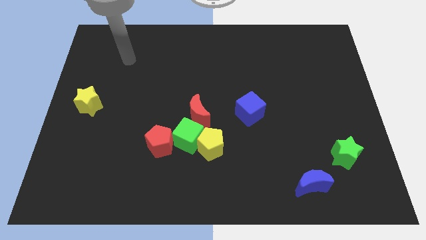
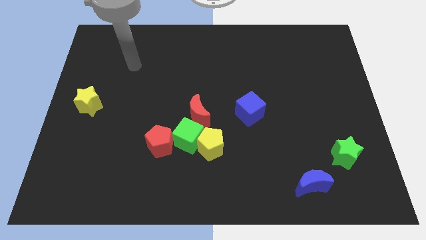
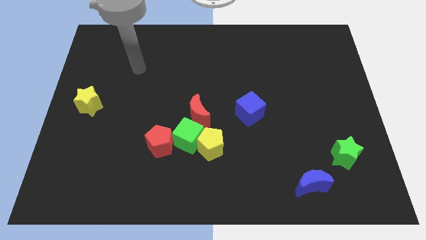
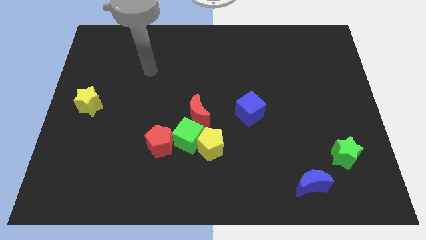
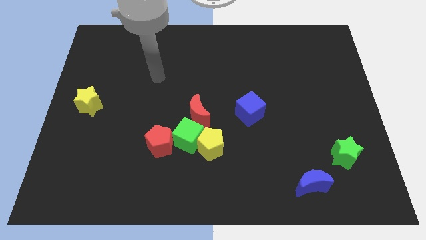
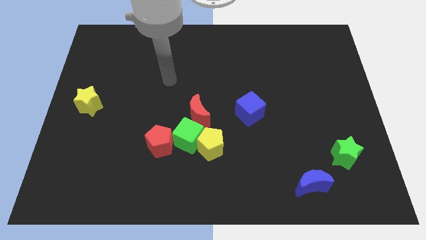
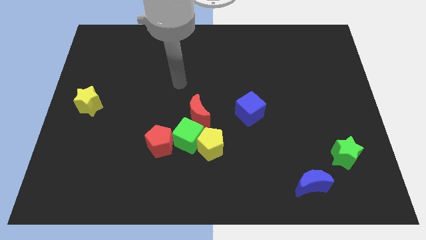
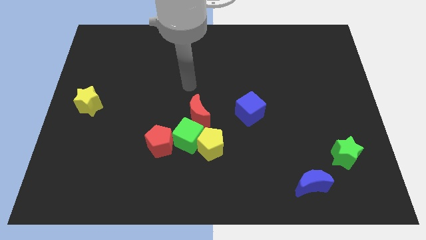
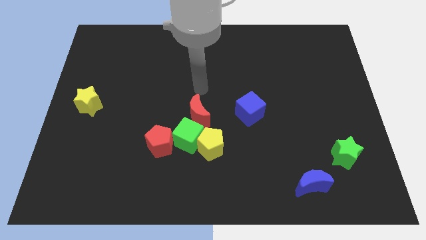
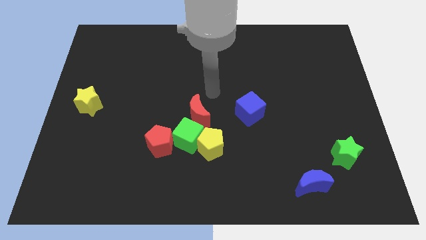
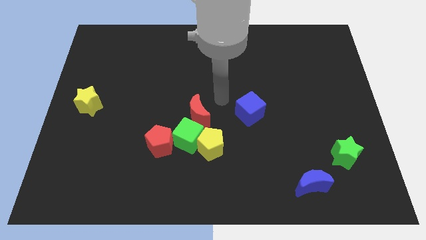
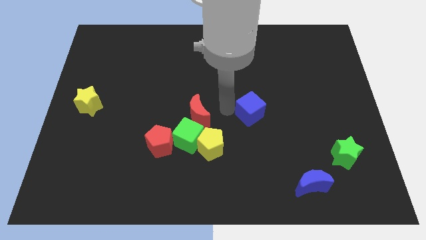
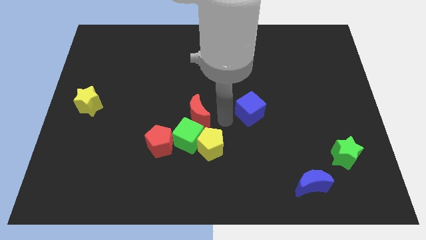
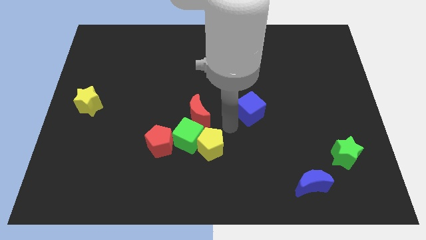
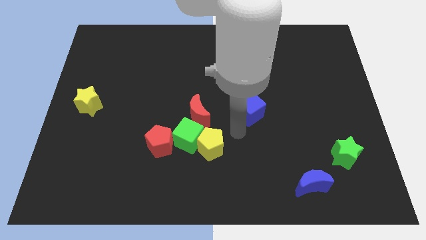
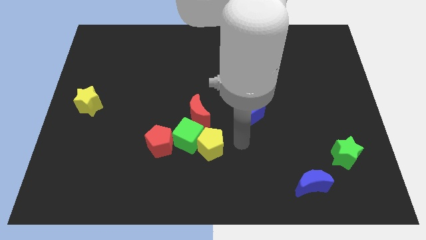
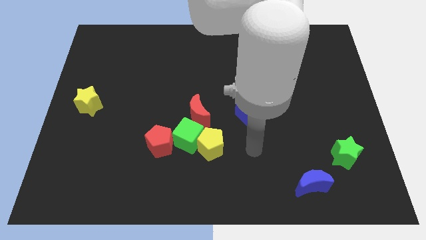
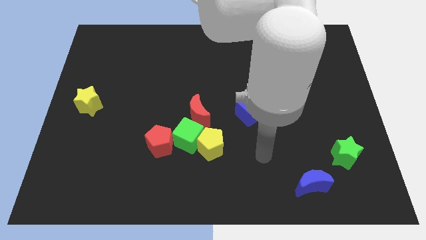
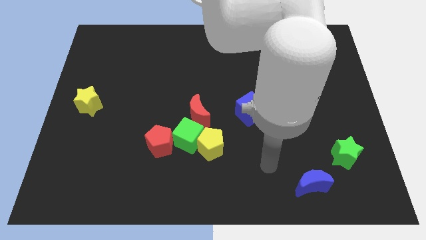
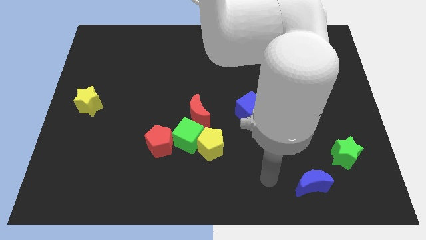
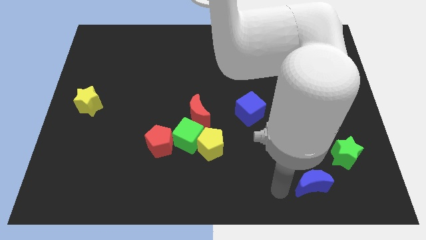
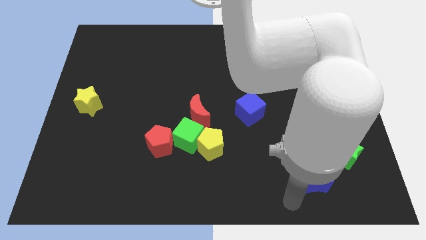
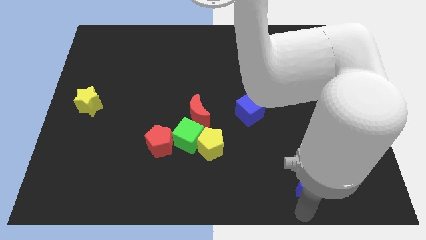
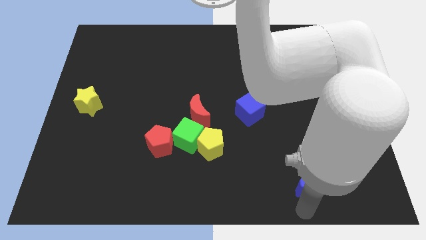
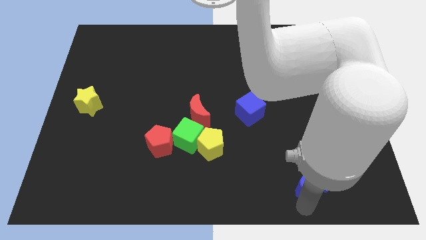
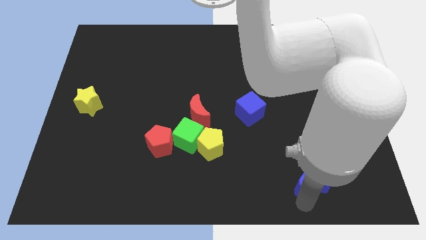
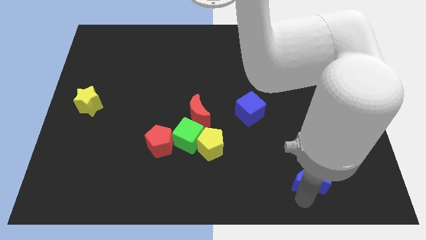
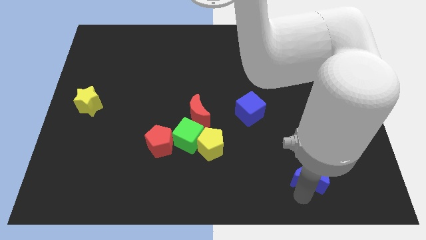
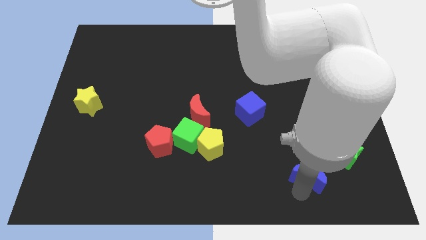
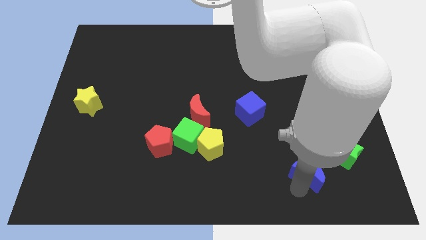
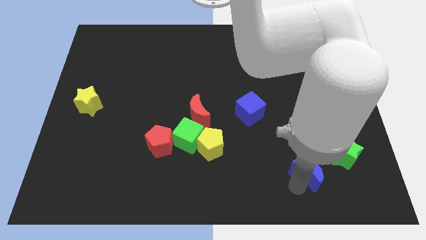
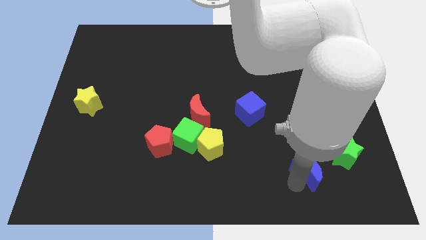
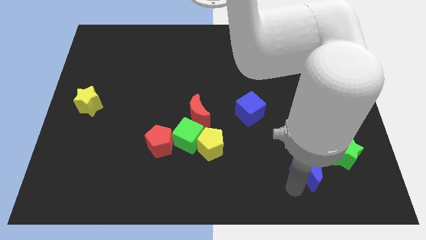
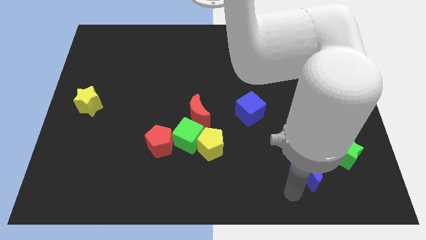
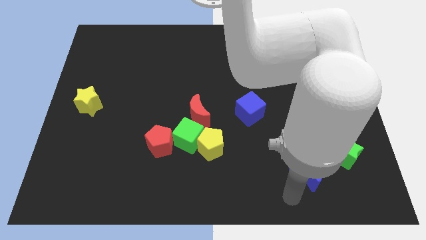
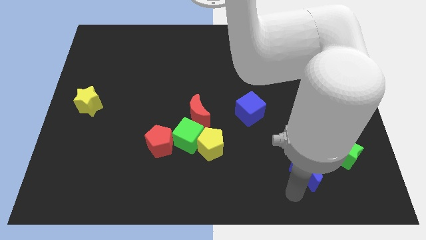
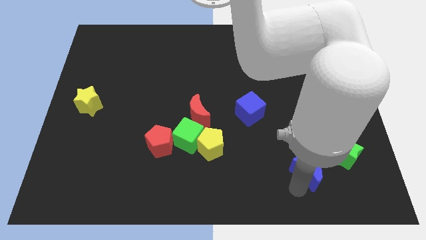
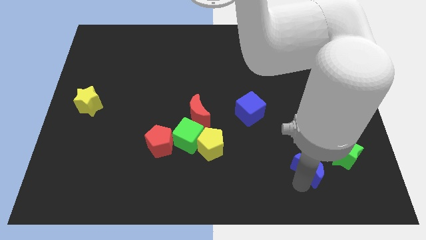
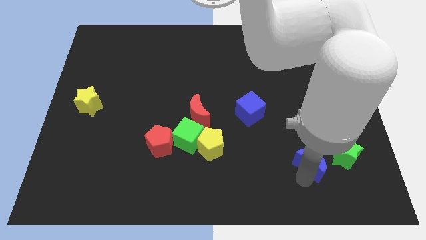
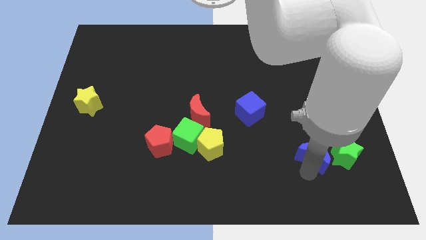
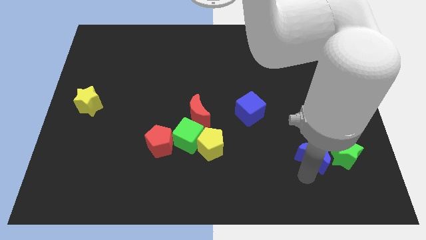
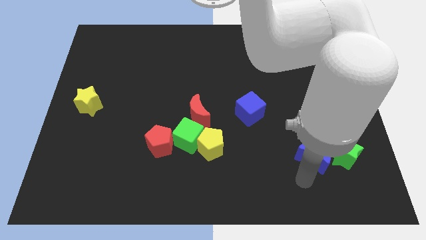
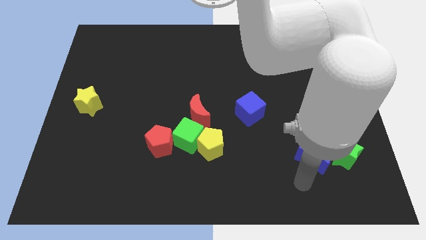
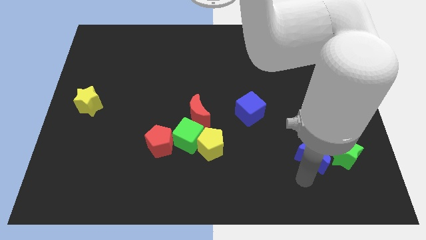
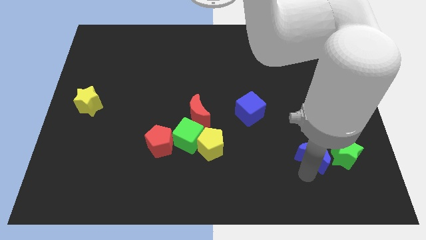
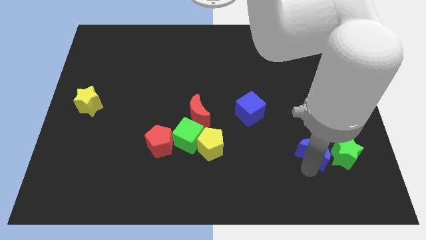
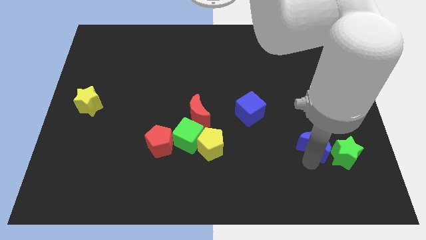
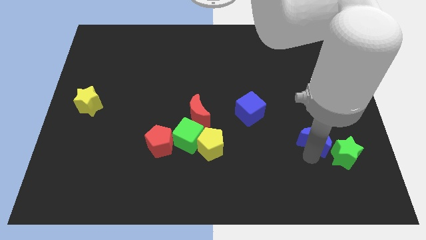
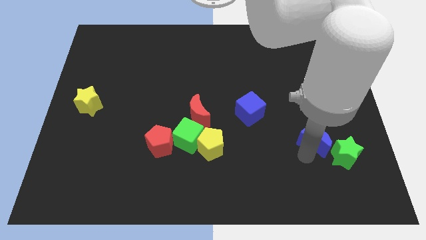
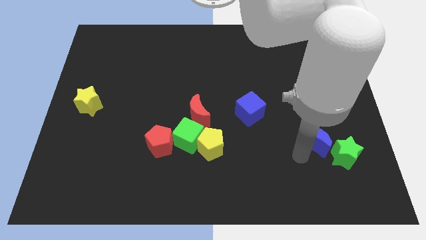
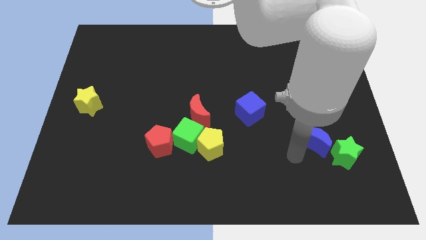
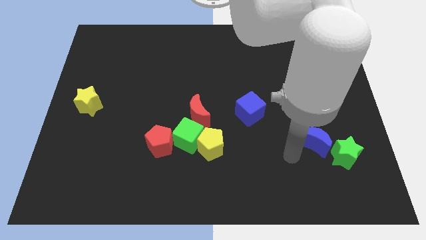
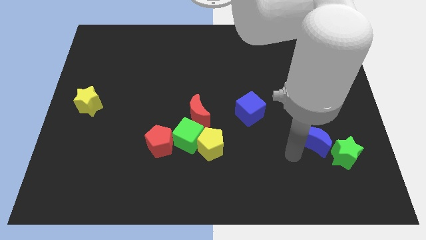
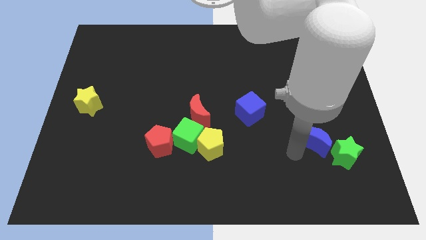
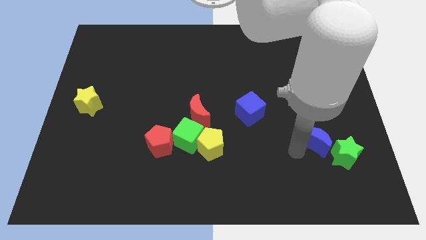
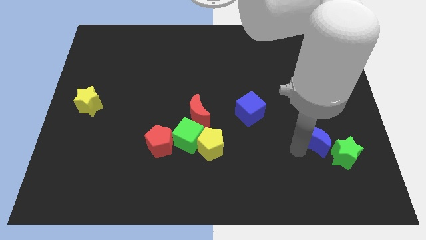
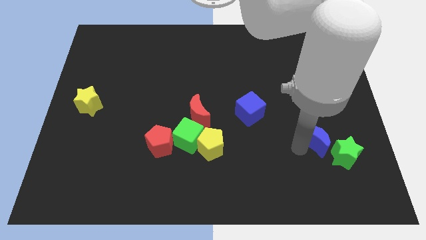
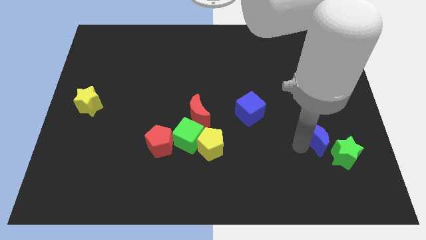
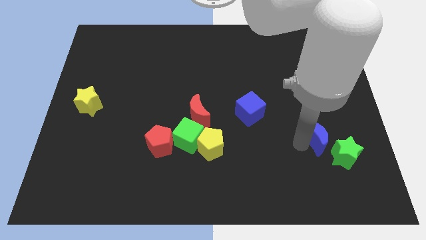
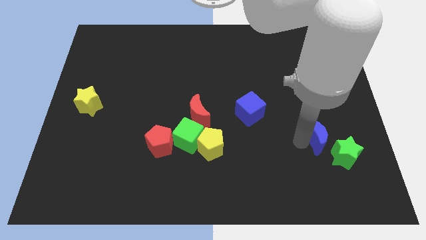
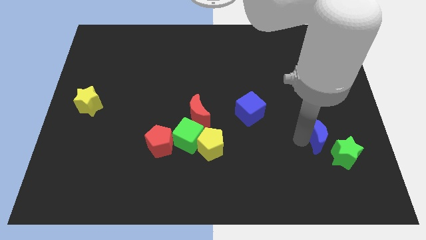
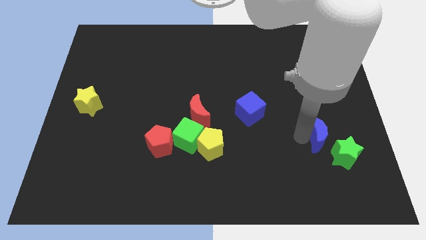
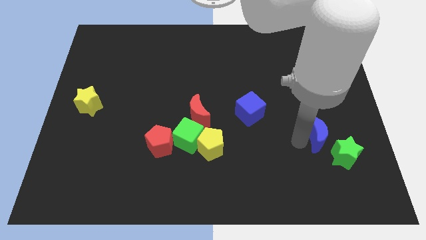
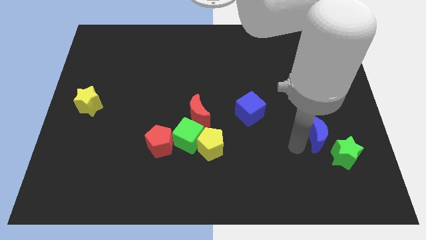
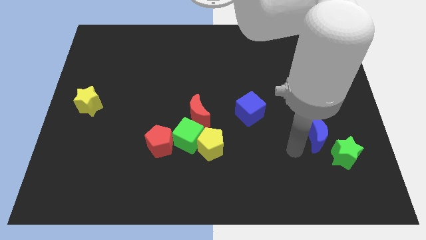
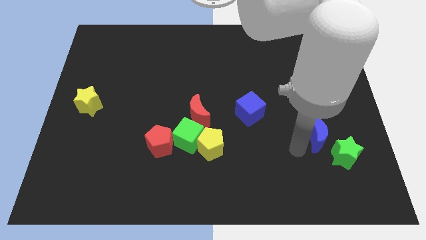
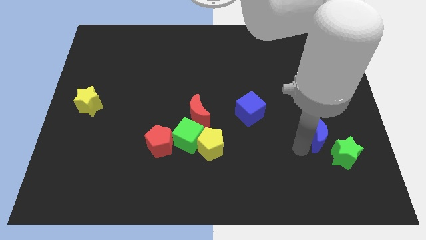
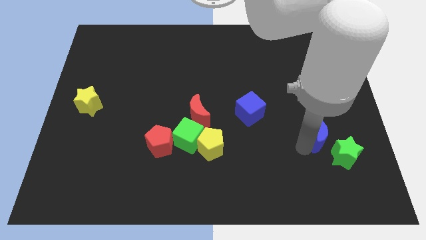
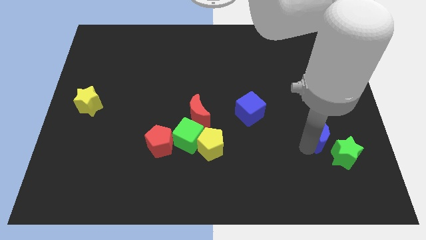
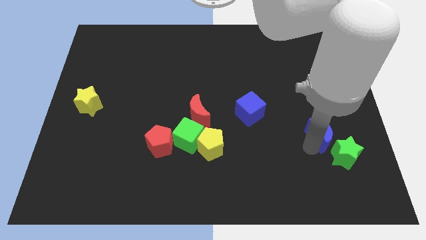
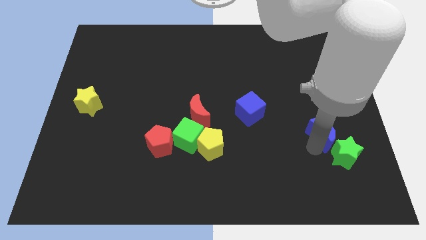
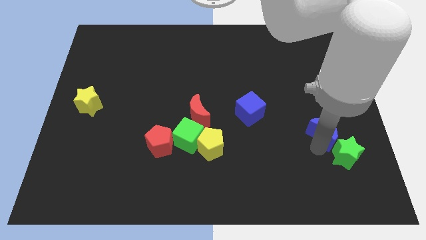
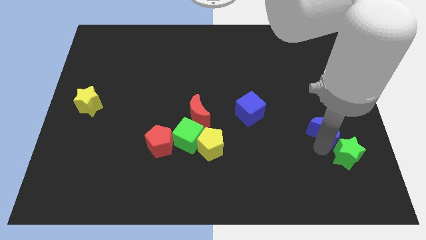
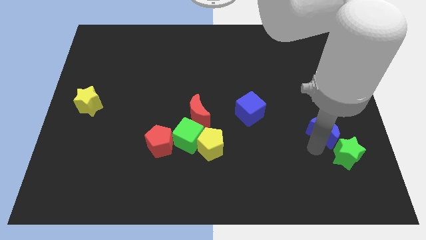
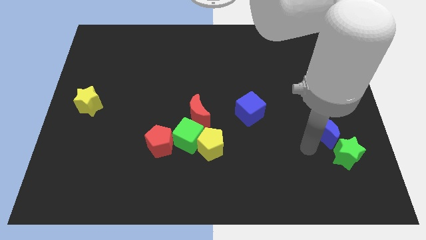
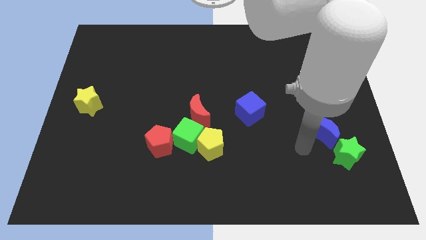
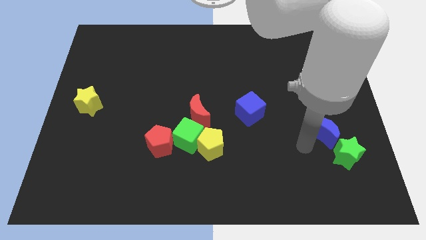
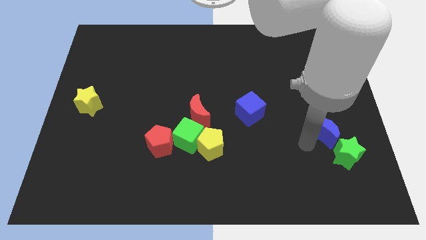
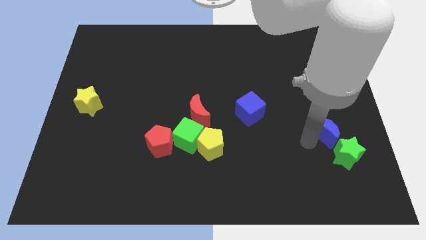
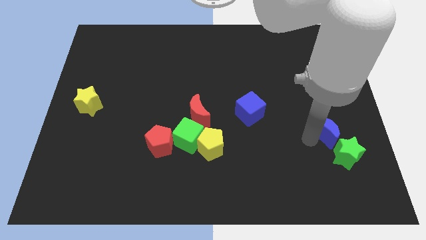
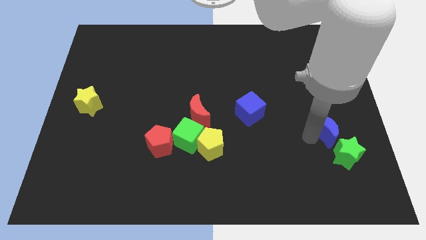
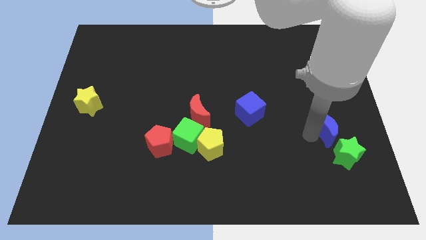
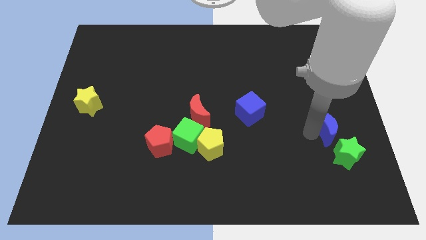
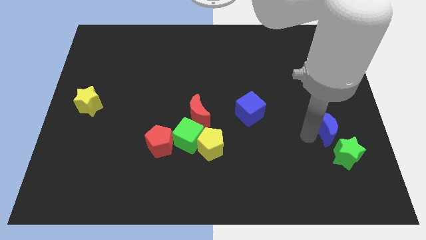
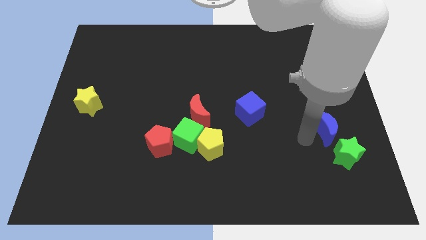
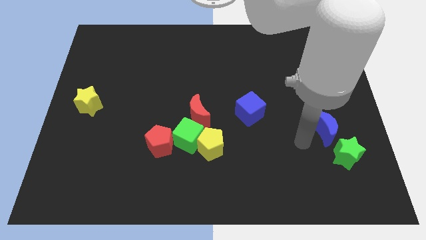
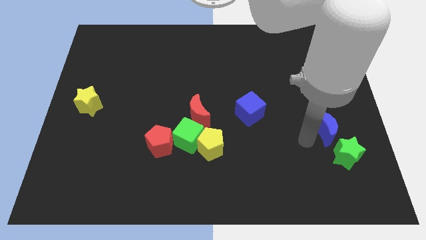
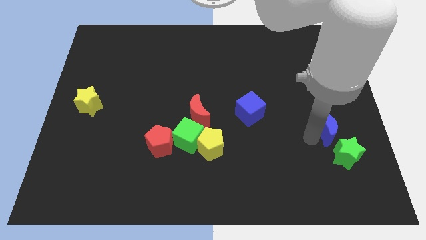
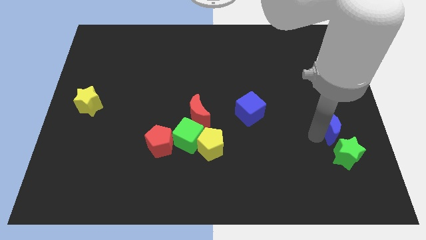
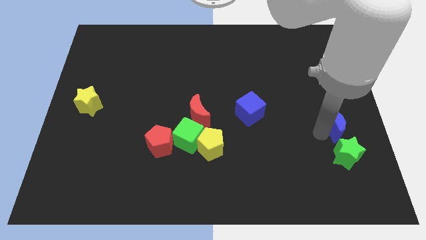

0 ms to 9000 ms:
put the blue moon to the center right
